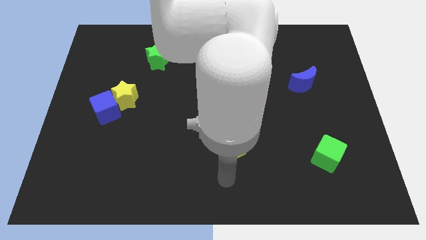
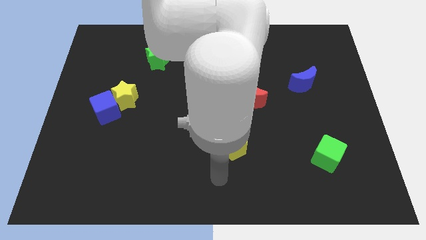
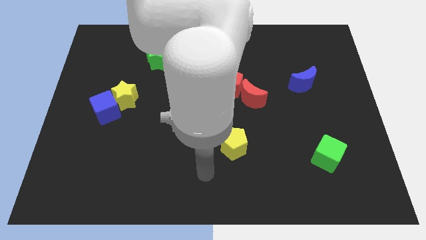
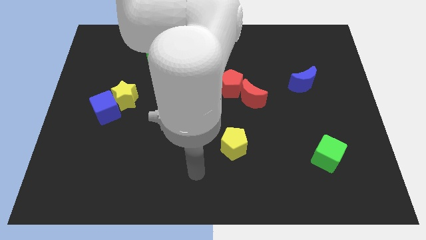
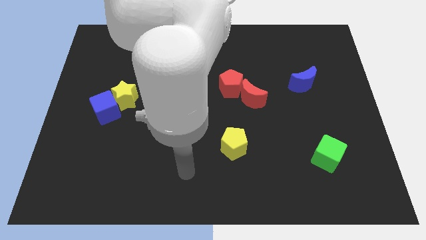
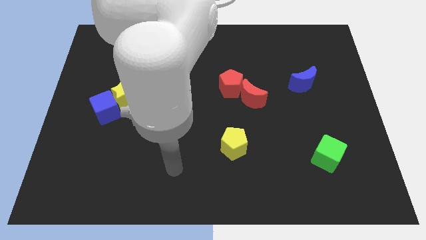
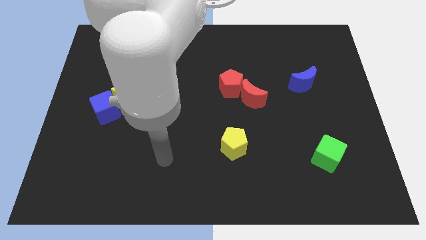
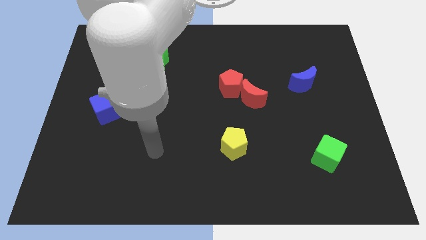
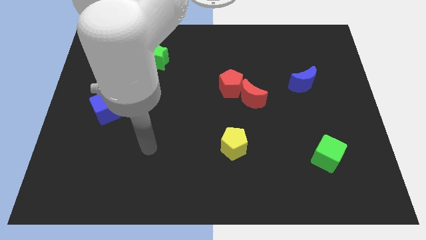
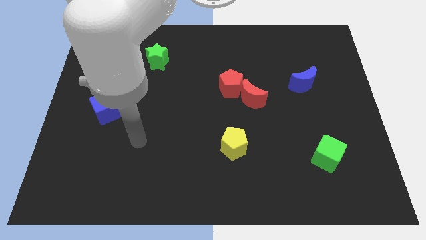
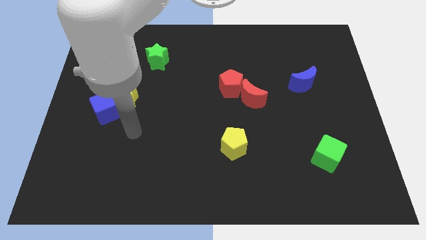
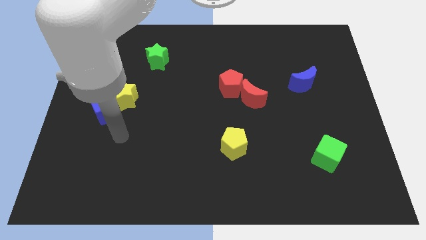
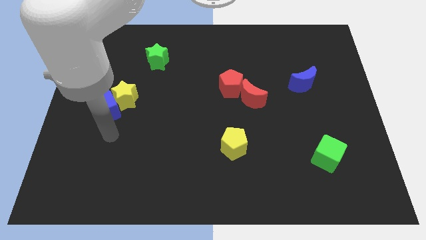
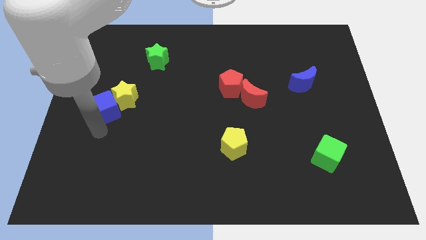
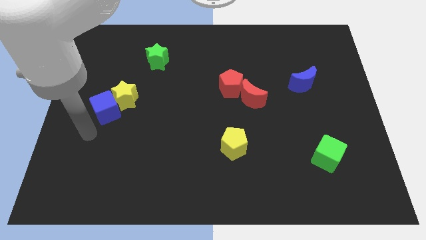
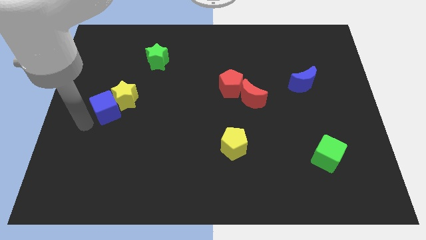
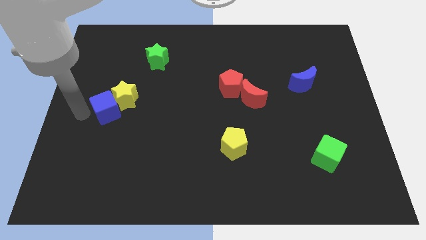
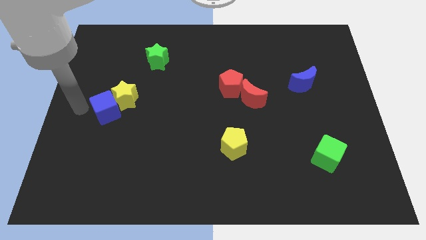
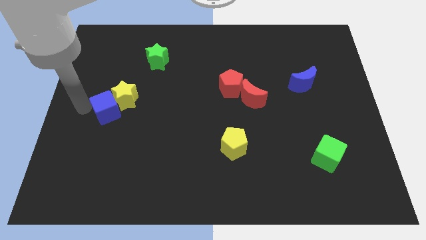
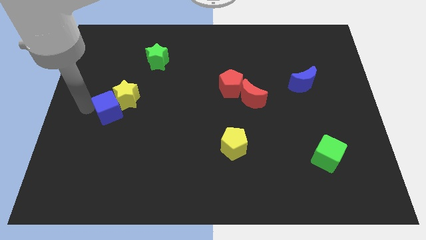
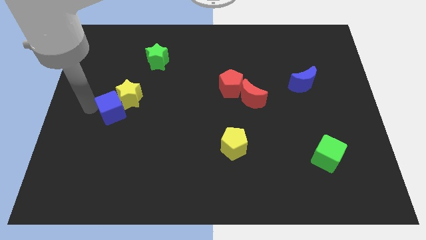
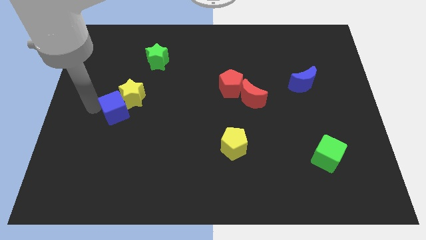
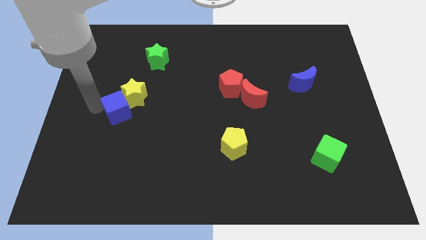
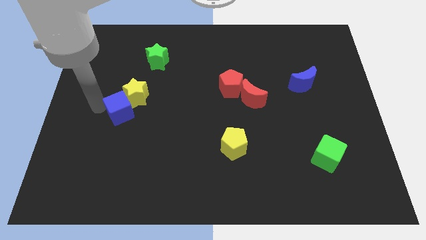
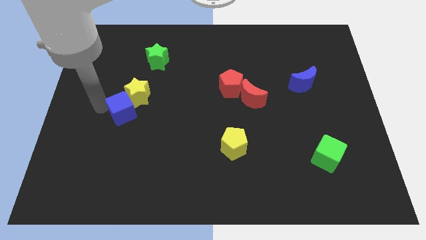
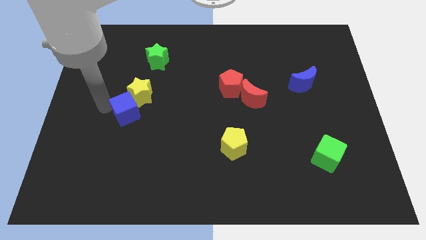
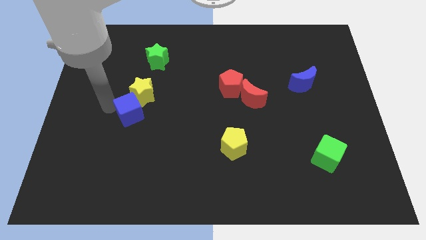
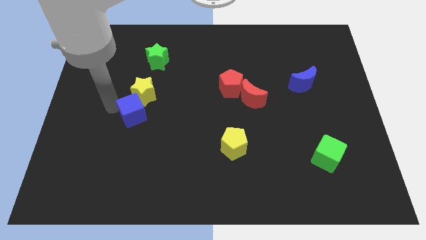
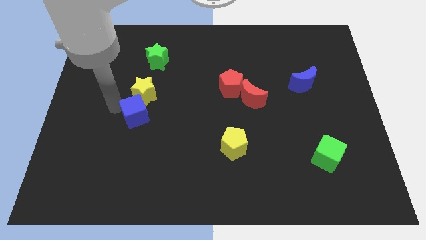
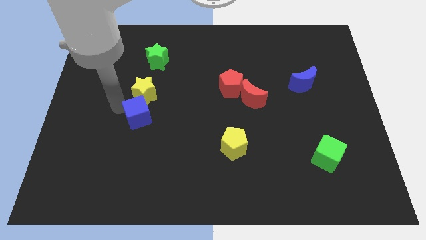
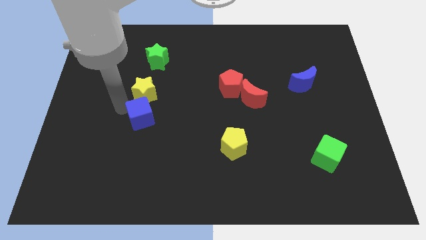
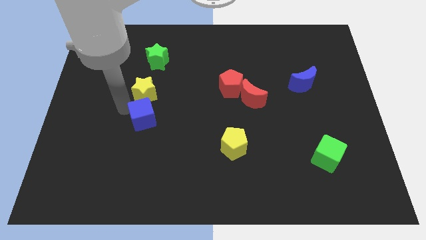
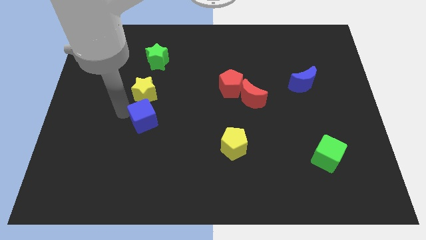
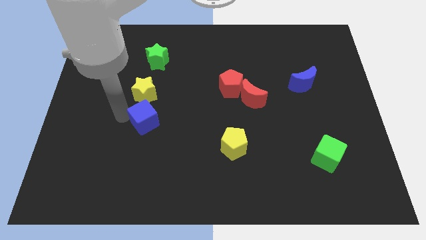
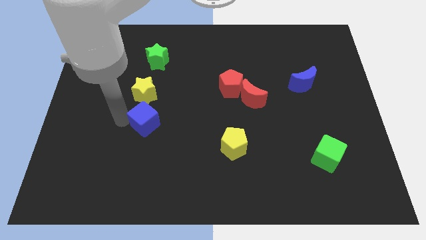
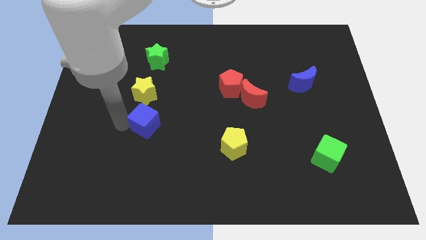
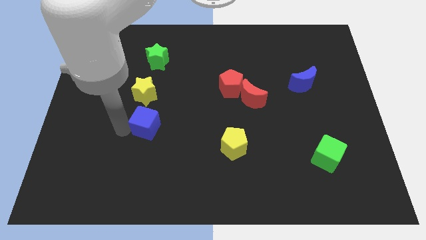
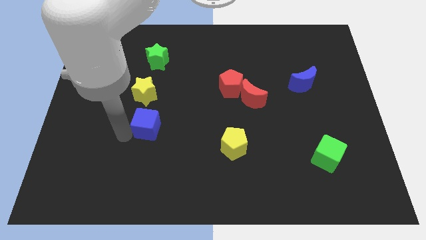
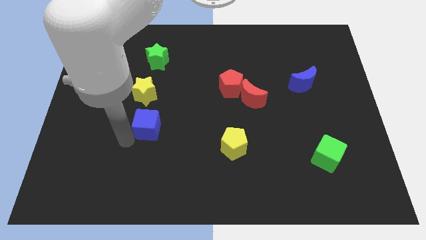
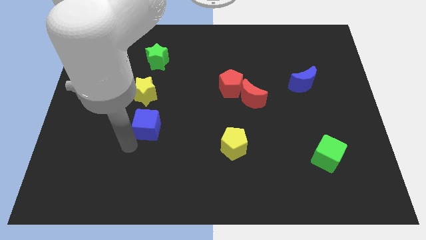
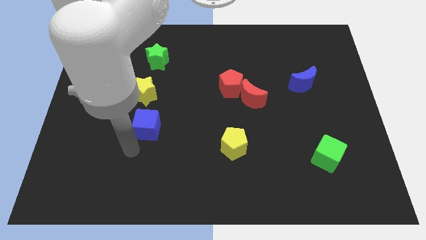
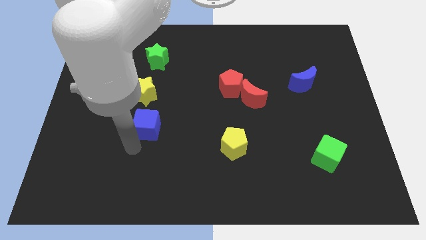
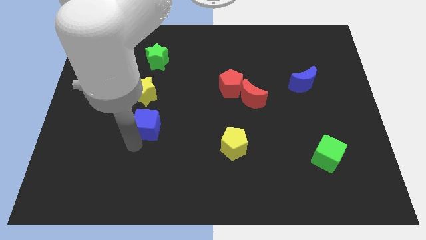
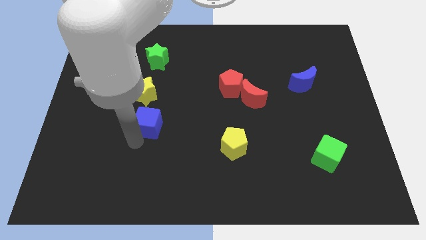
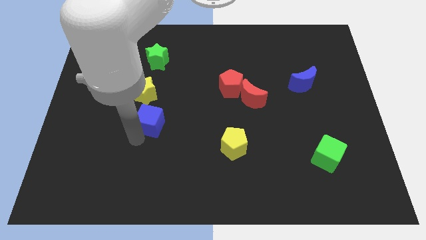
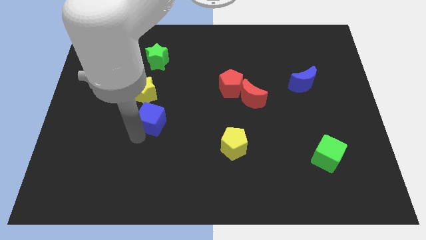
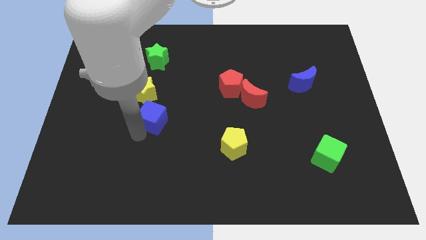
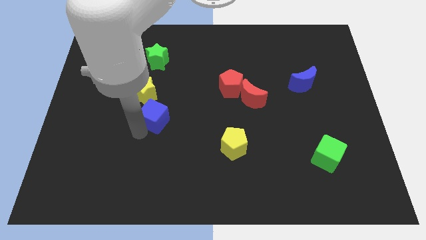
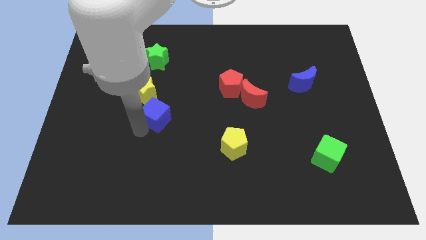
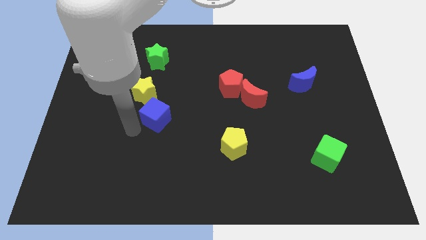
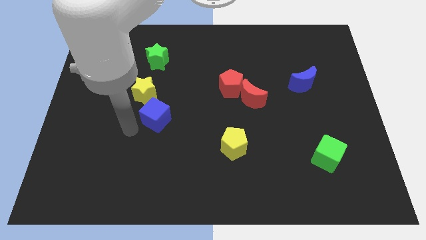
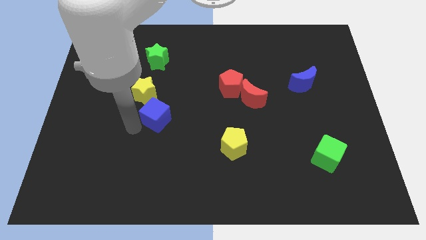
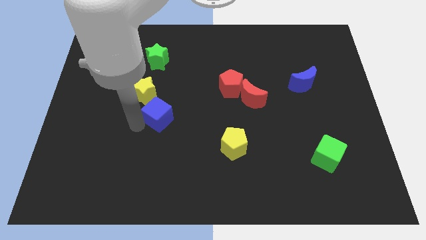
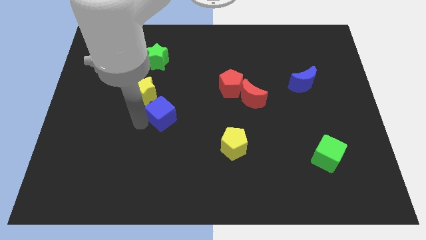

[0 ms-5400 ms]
move the blue cube to the center
